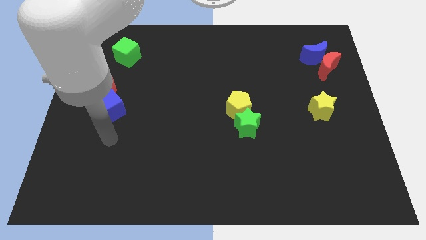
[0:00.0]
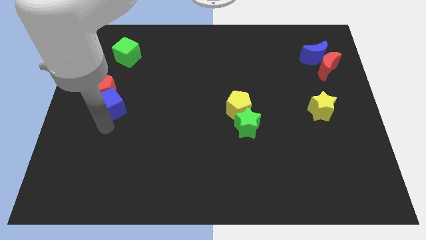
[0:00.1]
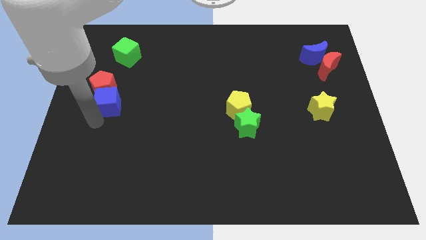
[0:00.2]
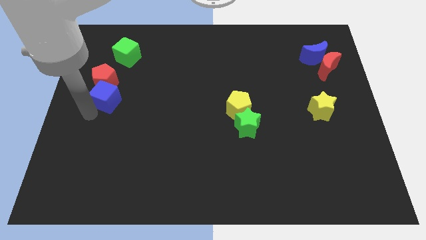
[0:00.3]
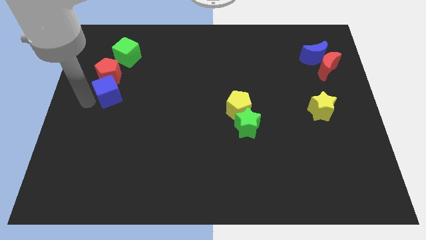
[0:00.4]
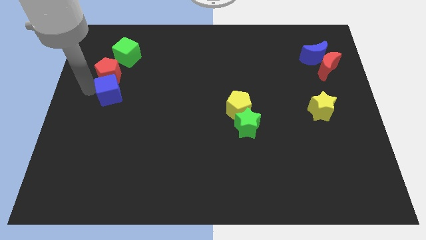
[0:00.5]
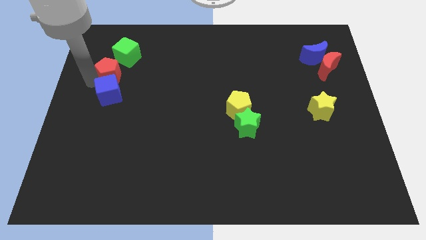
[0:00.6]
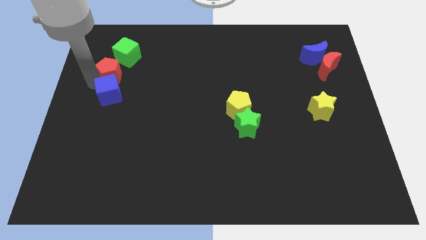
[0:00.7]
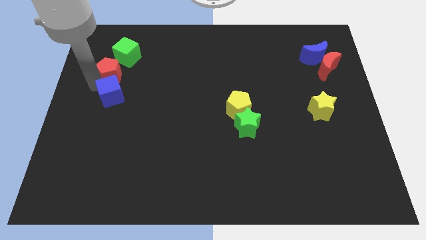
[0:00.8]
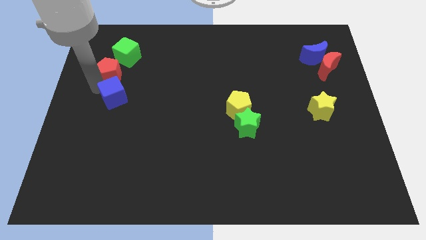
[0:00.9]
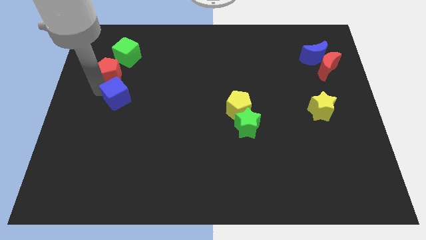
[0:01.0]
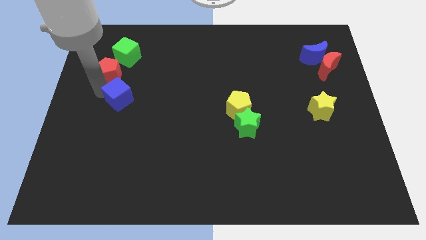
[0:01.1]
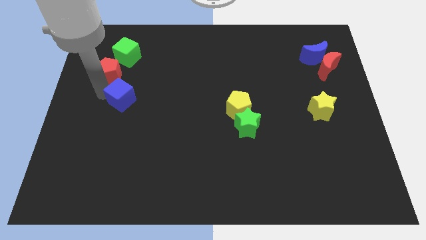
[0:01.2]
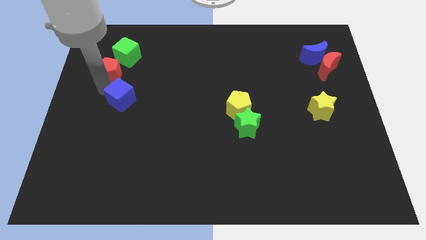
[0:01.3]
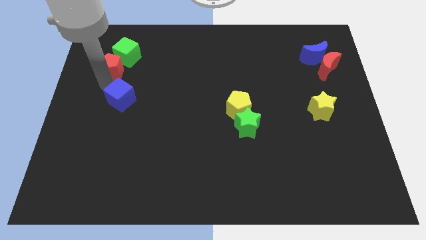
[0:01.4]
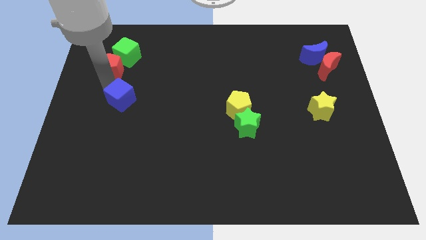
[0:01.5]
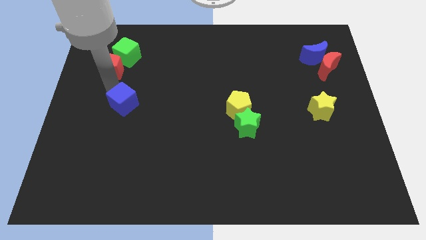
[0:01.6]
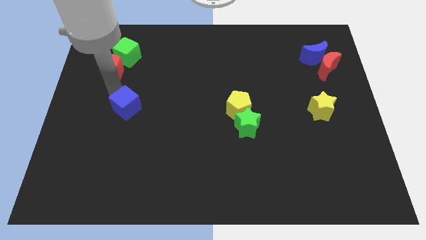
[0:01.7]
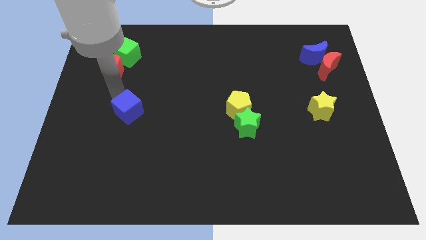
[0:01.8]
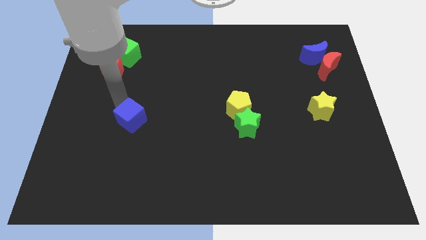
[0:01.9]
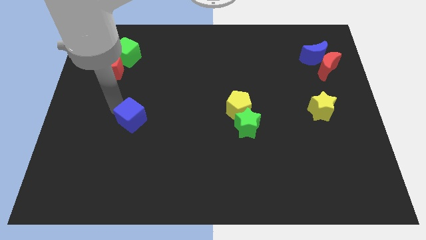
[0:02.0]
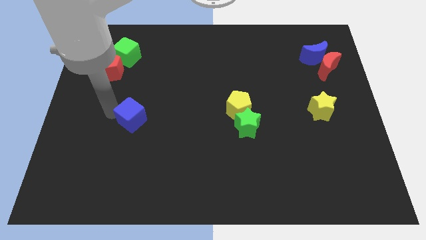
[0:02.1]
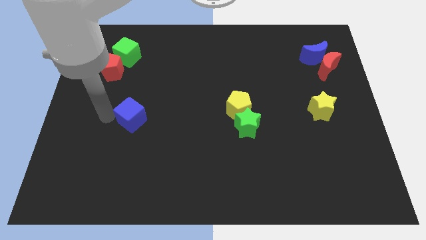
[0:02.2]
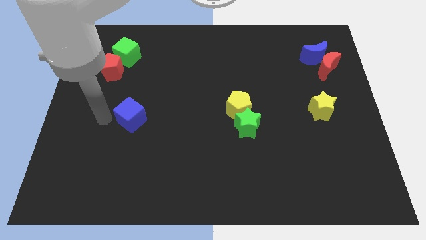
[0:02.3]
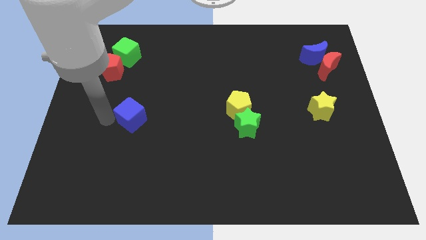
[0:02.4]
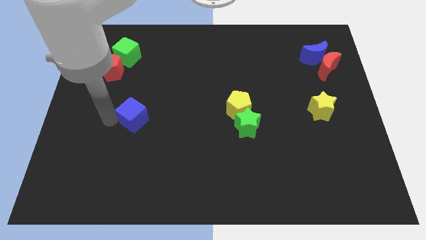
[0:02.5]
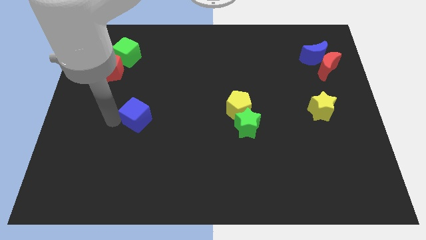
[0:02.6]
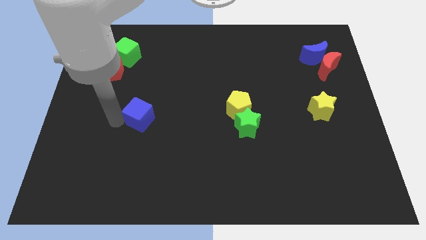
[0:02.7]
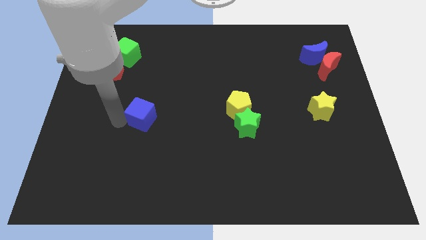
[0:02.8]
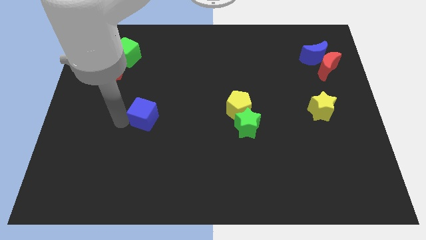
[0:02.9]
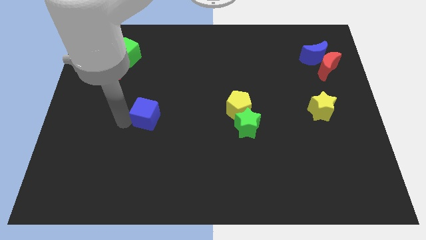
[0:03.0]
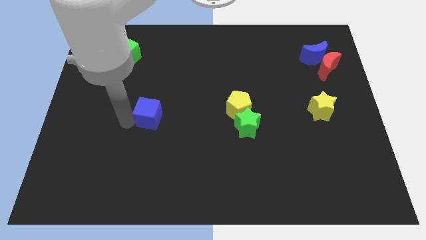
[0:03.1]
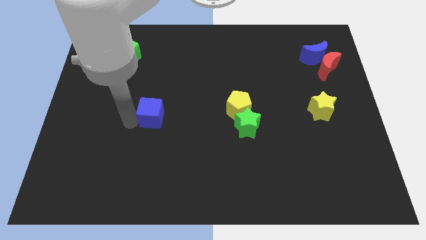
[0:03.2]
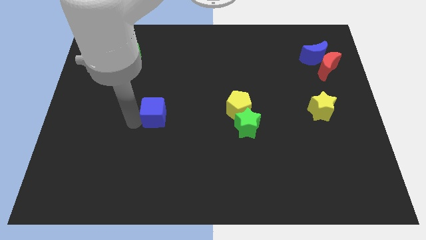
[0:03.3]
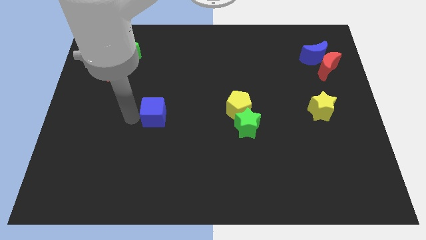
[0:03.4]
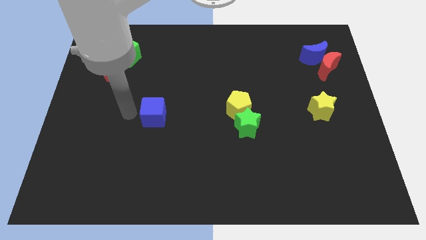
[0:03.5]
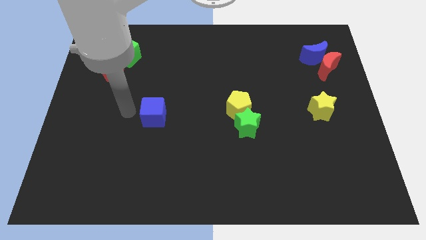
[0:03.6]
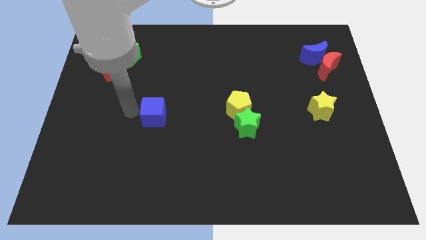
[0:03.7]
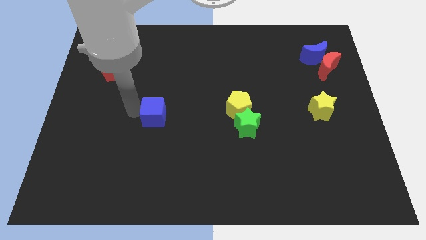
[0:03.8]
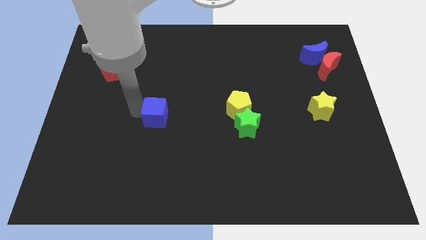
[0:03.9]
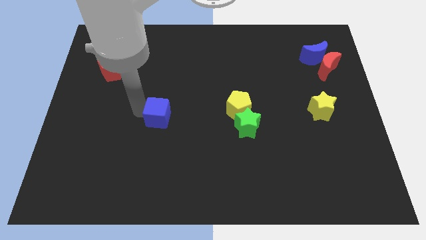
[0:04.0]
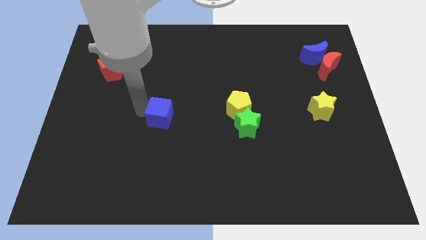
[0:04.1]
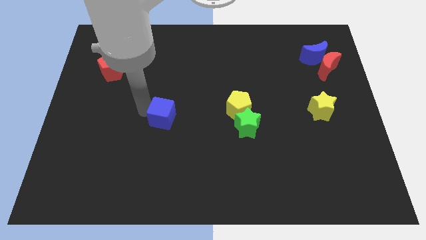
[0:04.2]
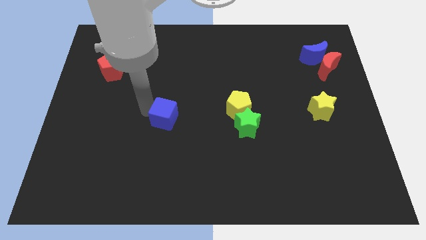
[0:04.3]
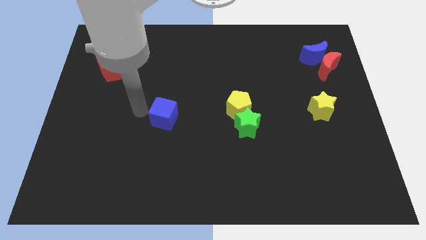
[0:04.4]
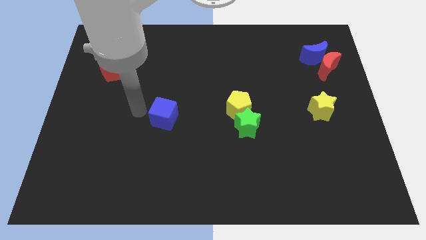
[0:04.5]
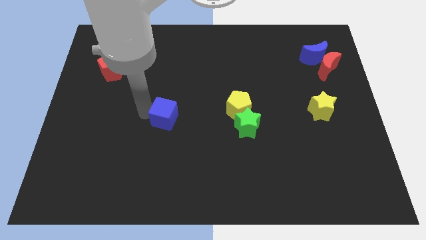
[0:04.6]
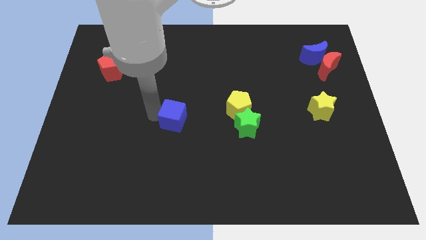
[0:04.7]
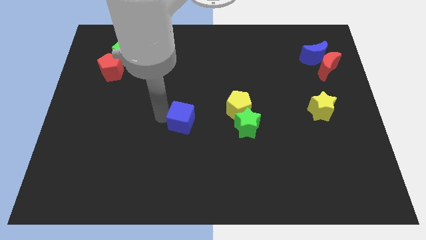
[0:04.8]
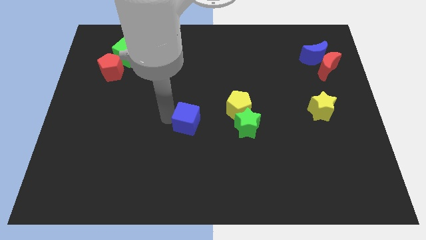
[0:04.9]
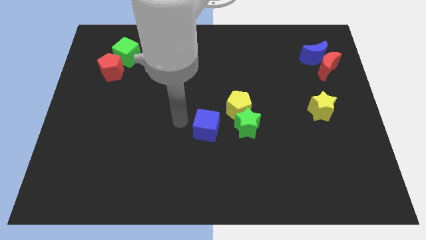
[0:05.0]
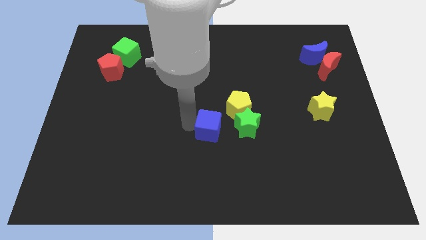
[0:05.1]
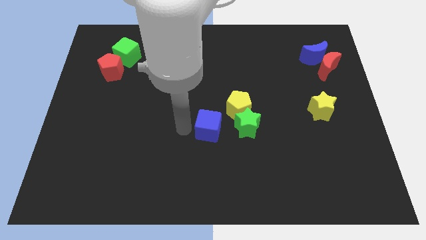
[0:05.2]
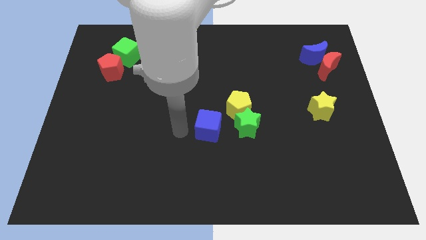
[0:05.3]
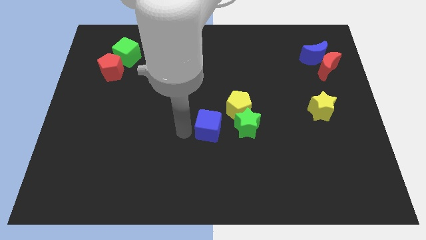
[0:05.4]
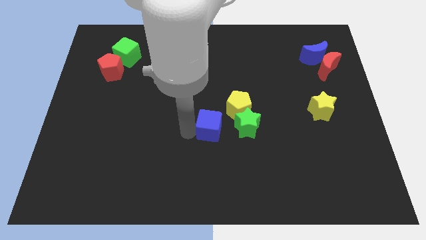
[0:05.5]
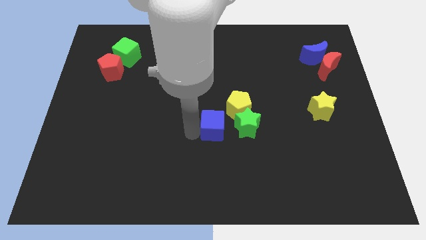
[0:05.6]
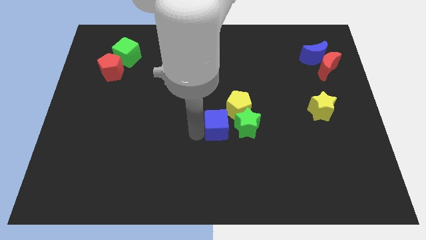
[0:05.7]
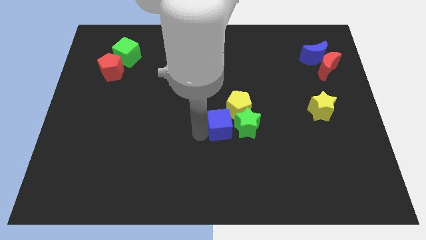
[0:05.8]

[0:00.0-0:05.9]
push the blue cube close to the green star

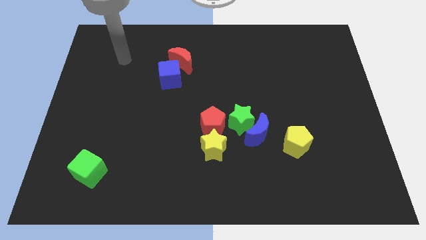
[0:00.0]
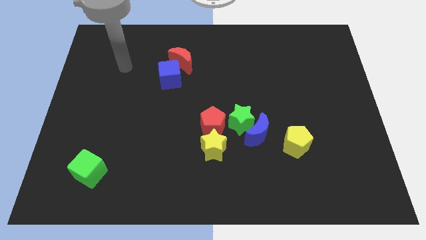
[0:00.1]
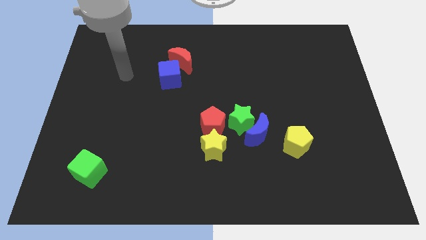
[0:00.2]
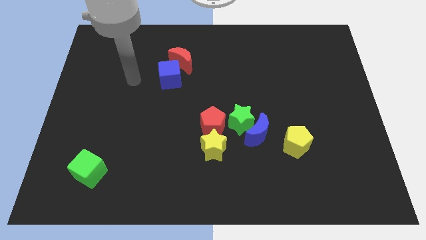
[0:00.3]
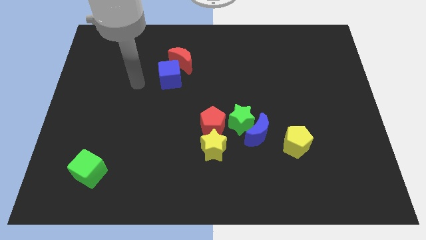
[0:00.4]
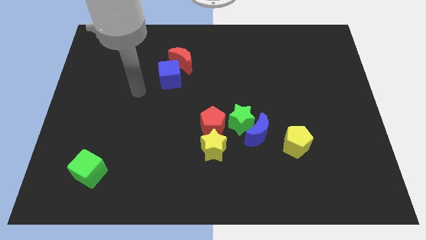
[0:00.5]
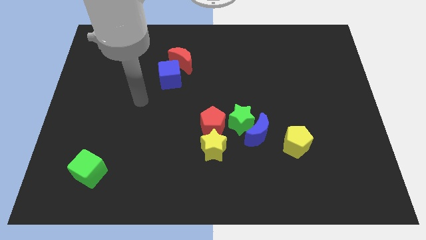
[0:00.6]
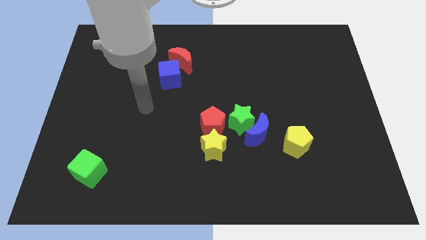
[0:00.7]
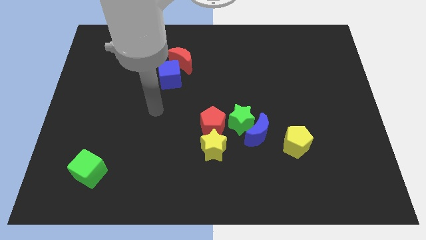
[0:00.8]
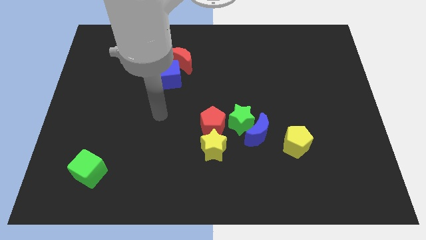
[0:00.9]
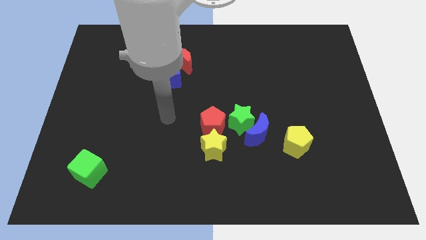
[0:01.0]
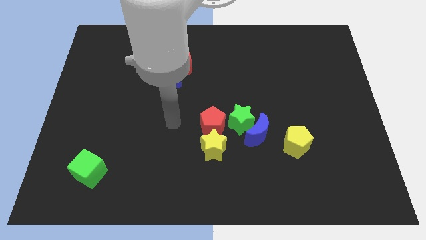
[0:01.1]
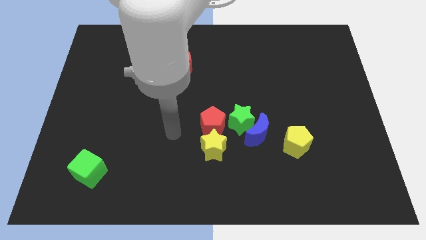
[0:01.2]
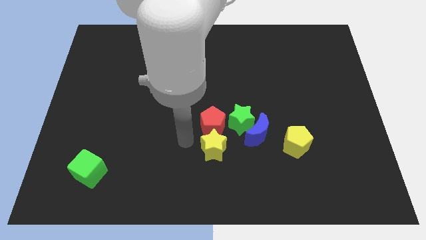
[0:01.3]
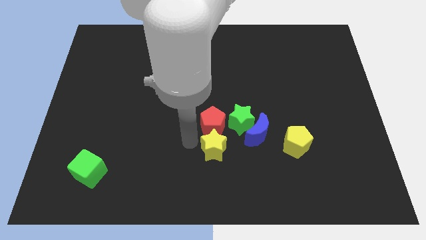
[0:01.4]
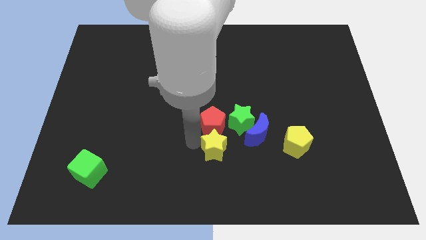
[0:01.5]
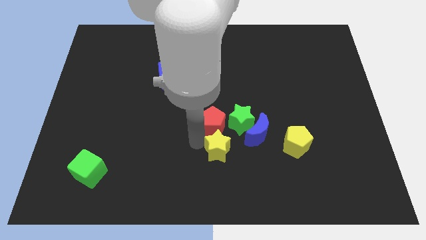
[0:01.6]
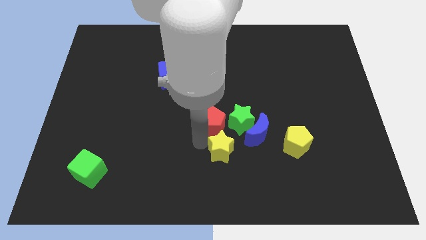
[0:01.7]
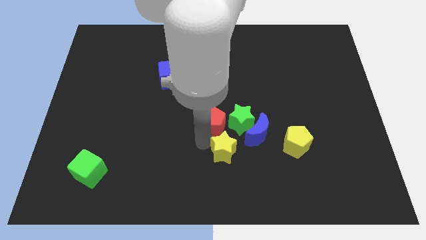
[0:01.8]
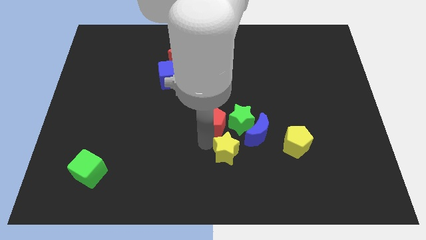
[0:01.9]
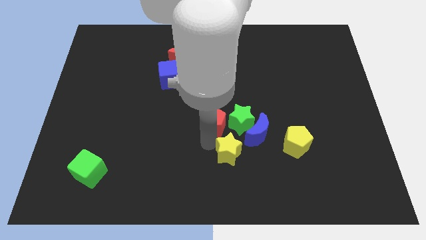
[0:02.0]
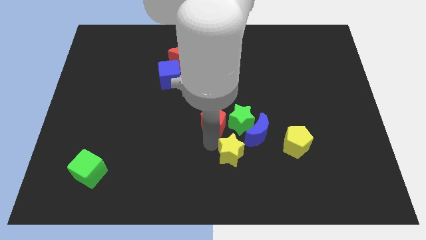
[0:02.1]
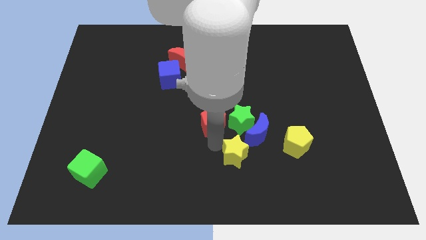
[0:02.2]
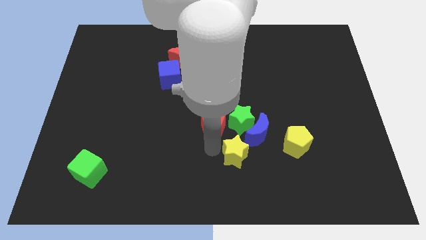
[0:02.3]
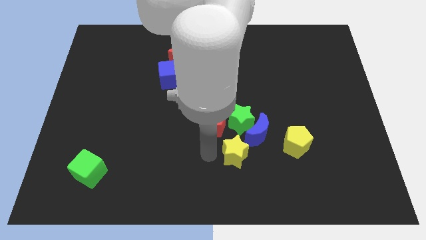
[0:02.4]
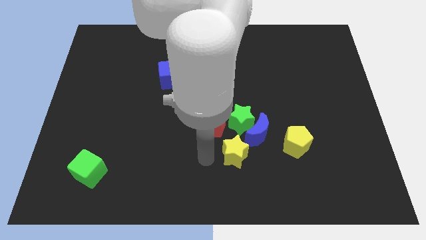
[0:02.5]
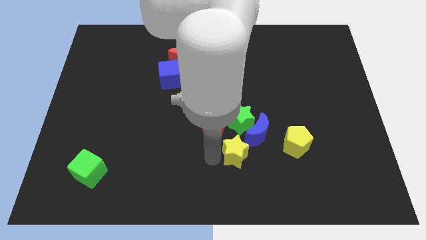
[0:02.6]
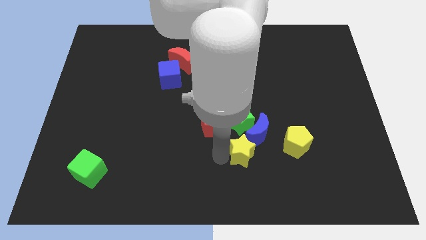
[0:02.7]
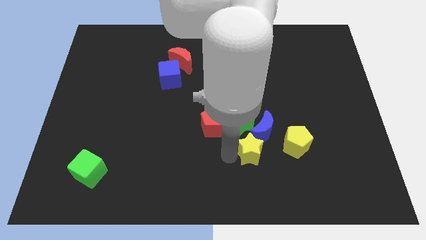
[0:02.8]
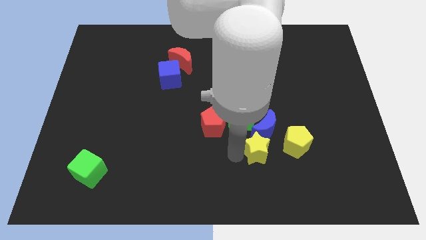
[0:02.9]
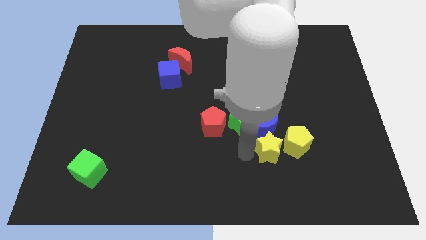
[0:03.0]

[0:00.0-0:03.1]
move the yellow star close to the yellow pentagon
